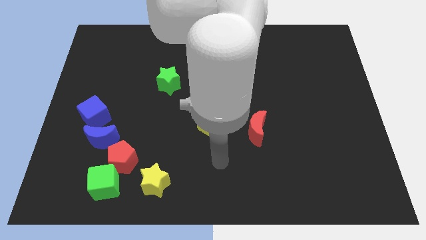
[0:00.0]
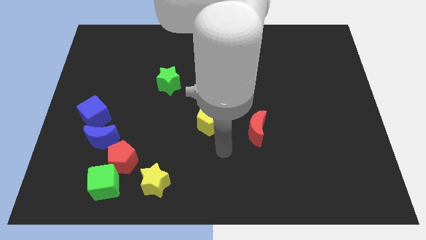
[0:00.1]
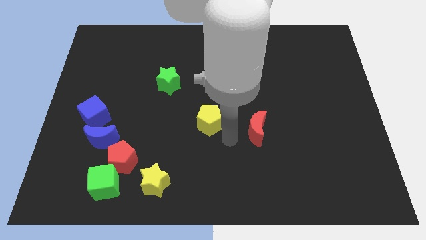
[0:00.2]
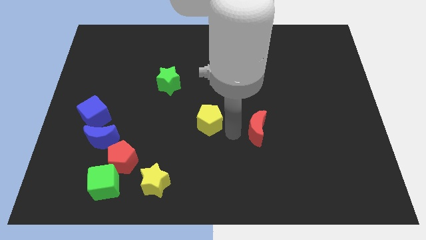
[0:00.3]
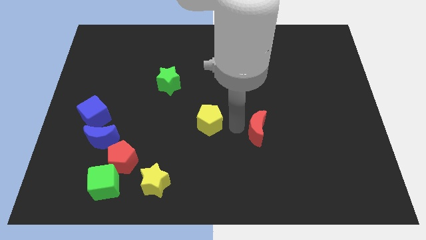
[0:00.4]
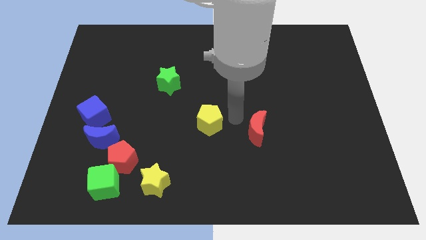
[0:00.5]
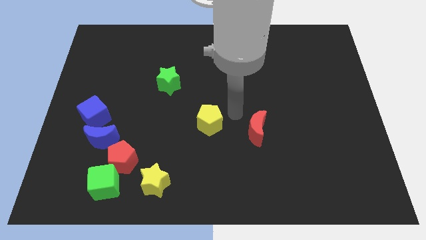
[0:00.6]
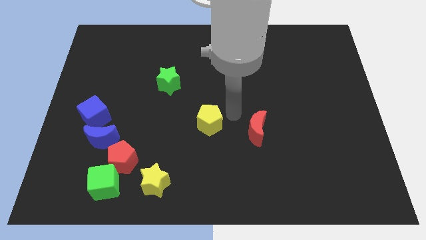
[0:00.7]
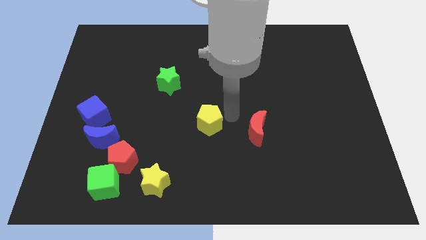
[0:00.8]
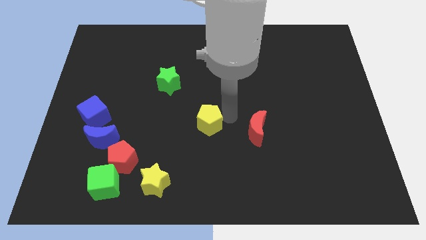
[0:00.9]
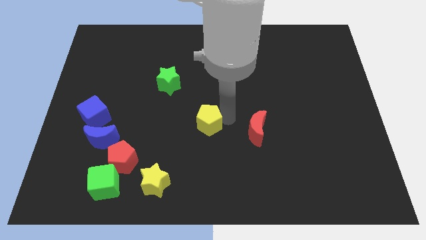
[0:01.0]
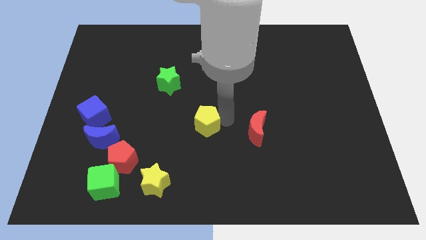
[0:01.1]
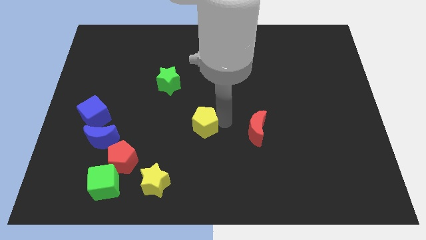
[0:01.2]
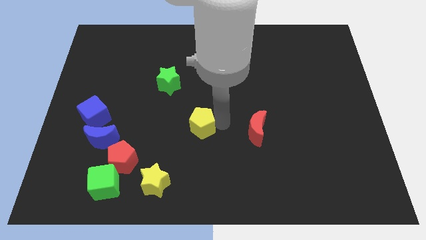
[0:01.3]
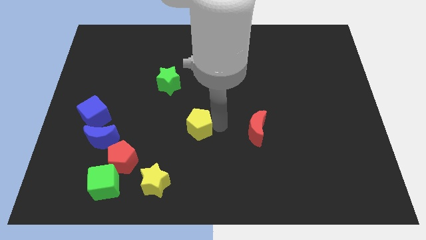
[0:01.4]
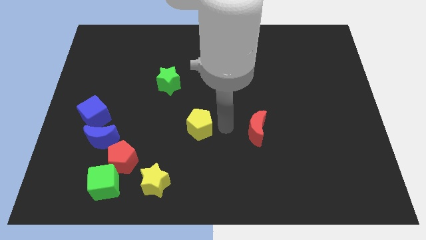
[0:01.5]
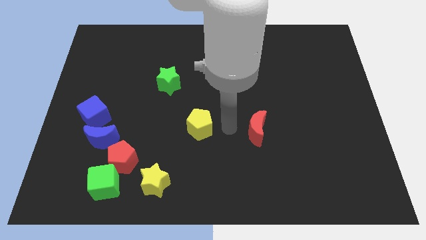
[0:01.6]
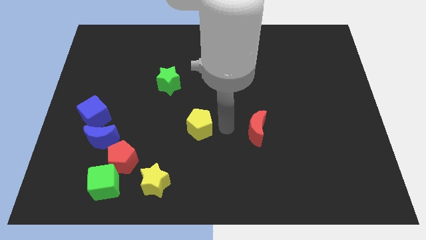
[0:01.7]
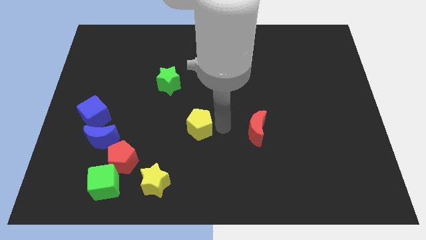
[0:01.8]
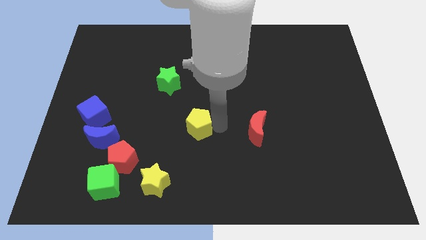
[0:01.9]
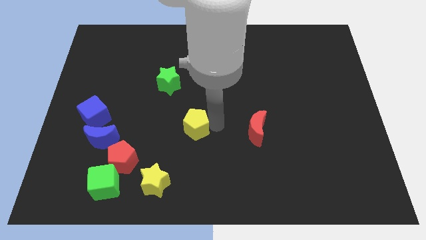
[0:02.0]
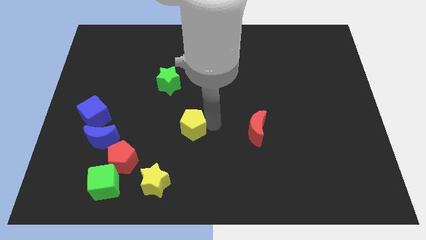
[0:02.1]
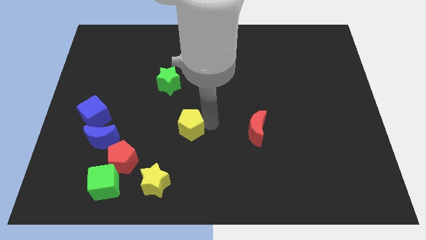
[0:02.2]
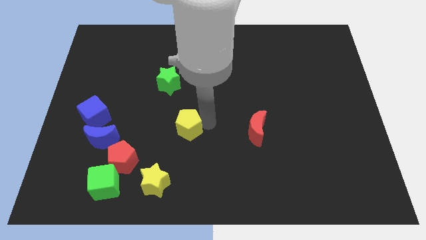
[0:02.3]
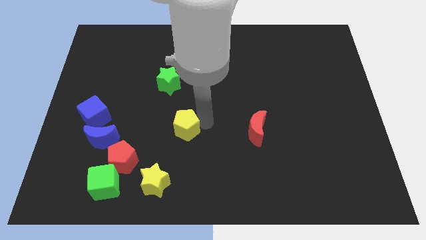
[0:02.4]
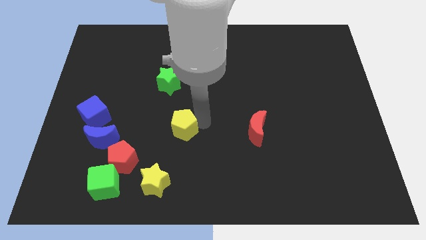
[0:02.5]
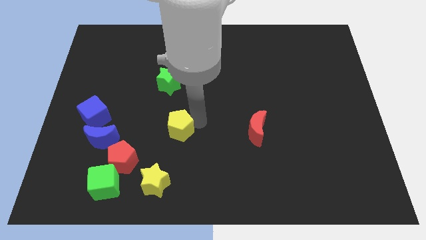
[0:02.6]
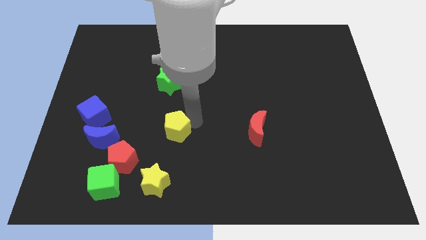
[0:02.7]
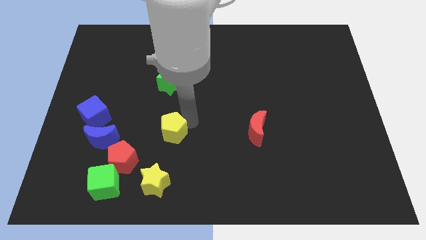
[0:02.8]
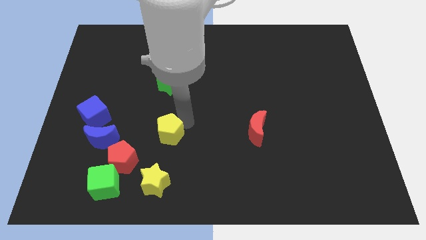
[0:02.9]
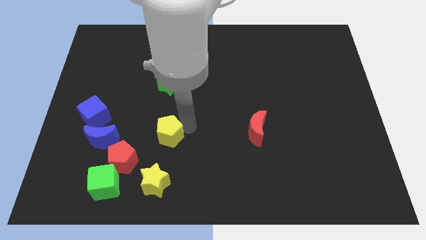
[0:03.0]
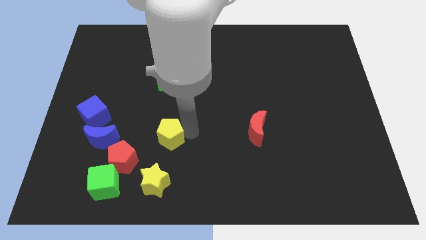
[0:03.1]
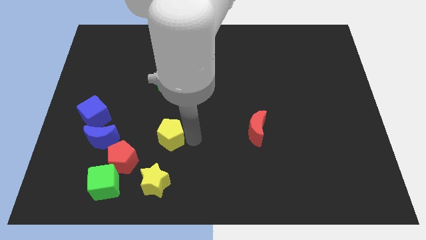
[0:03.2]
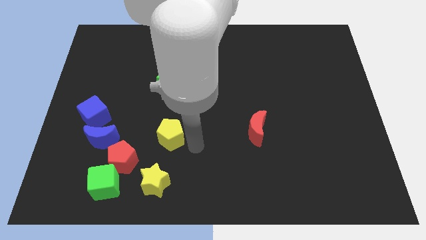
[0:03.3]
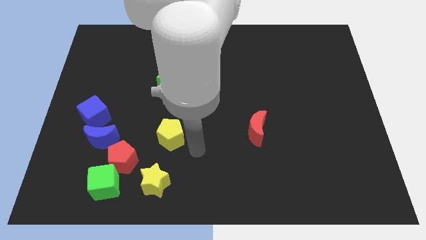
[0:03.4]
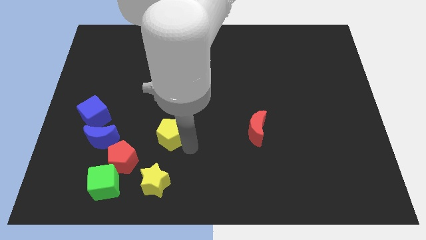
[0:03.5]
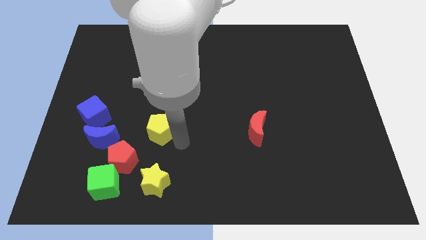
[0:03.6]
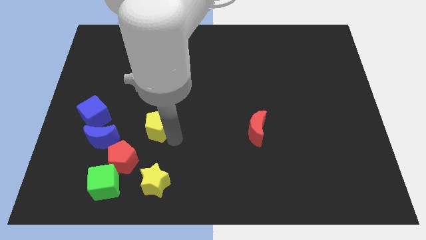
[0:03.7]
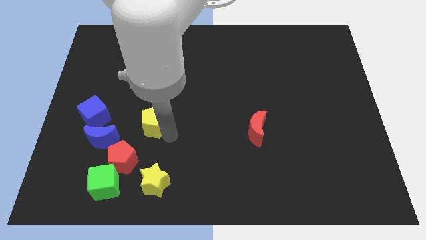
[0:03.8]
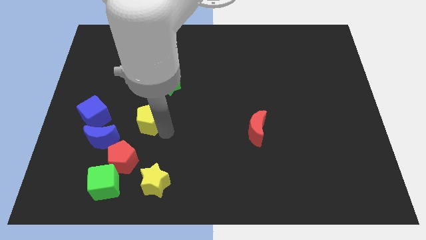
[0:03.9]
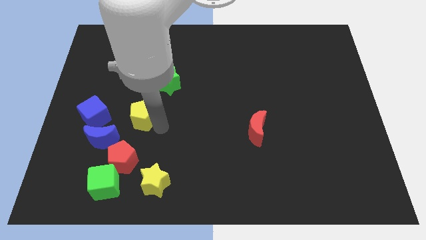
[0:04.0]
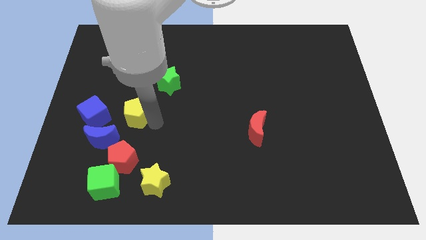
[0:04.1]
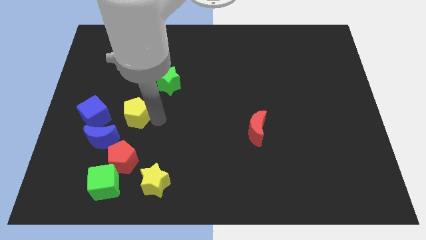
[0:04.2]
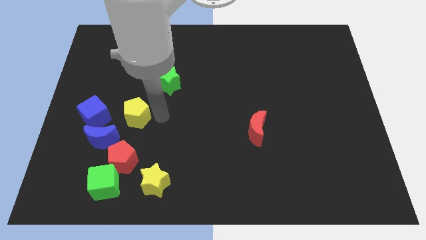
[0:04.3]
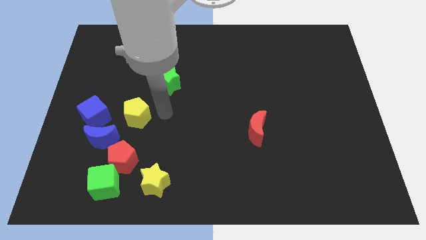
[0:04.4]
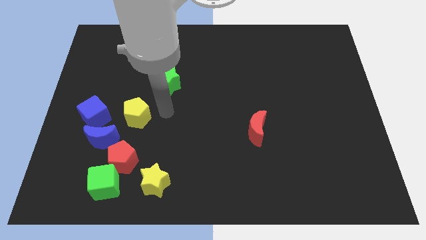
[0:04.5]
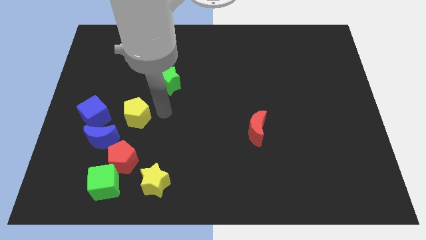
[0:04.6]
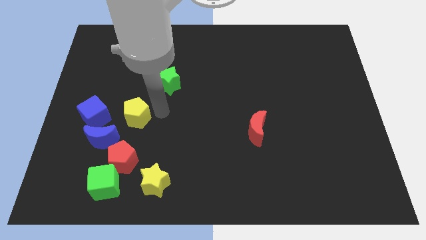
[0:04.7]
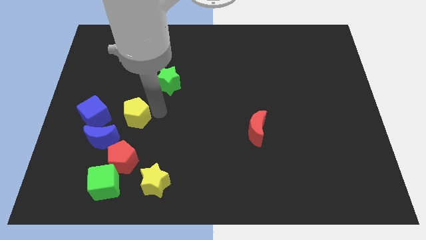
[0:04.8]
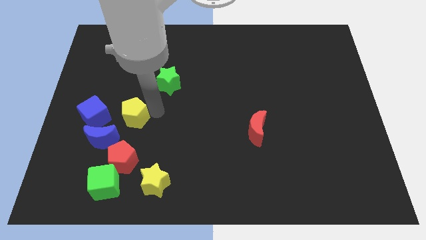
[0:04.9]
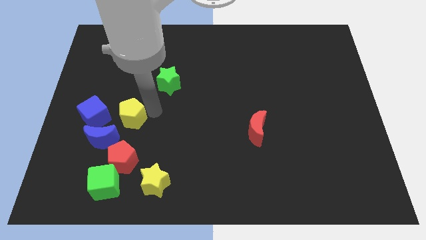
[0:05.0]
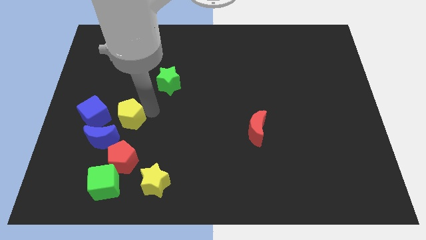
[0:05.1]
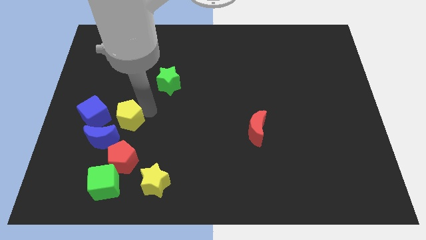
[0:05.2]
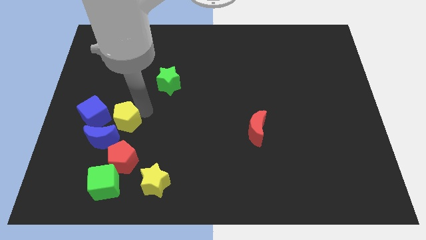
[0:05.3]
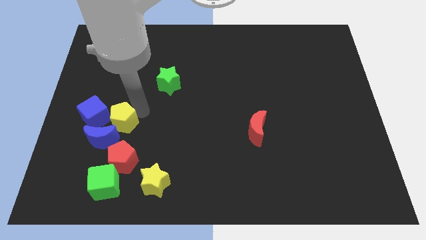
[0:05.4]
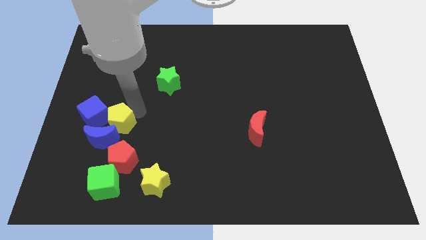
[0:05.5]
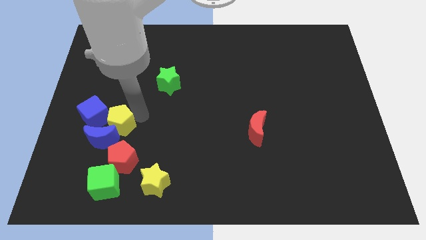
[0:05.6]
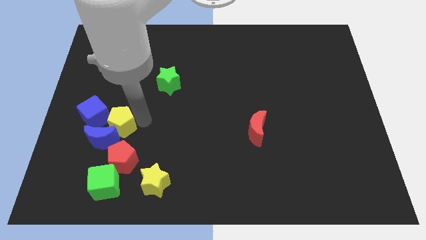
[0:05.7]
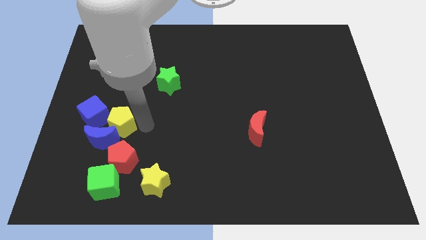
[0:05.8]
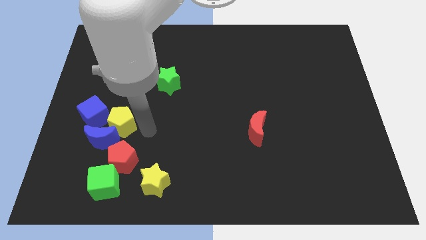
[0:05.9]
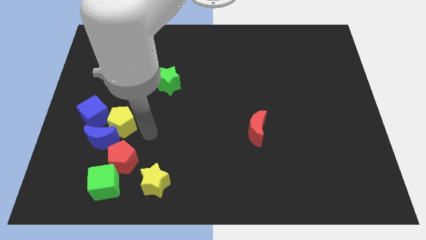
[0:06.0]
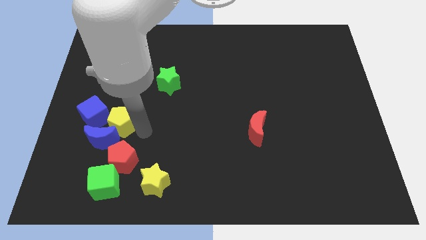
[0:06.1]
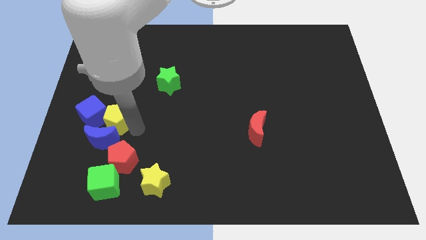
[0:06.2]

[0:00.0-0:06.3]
slide the yellow pentagon to the blue cube
